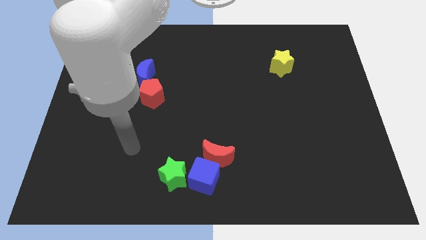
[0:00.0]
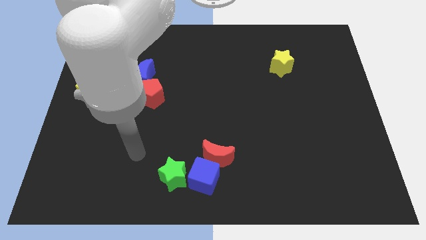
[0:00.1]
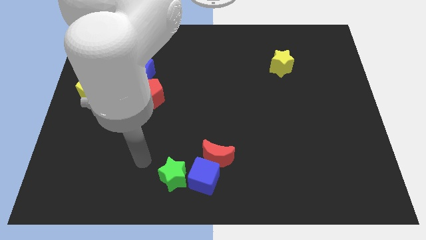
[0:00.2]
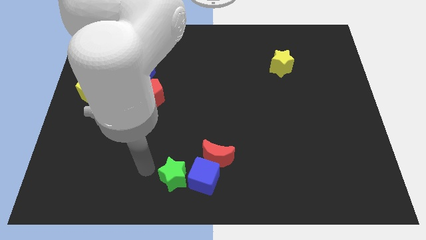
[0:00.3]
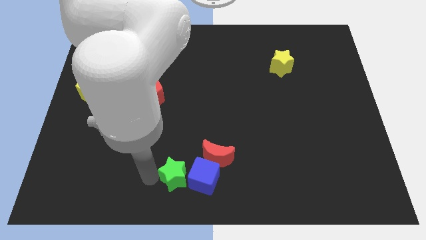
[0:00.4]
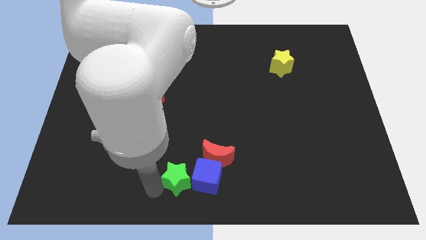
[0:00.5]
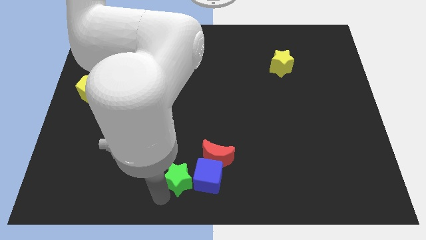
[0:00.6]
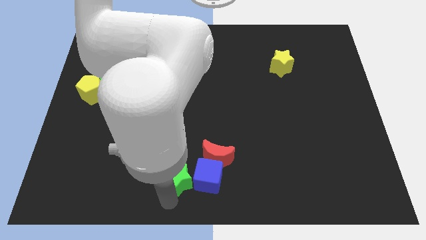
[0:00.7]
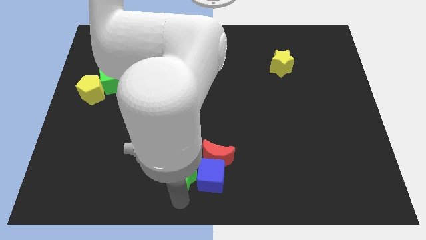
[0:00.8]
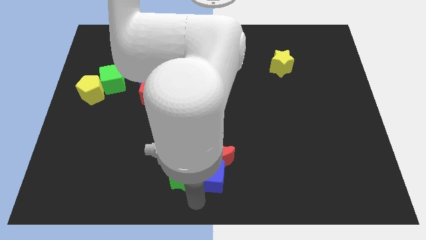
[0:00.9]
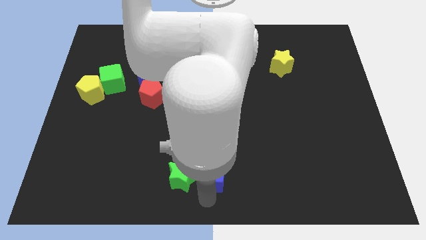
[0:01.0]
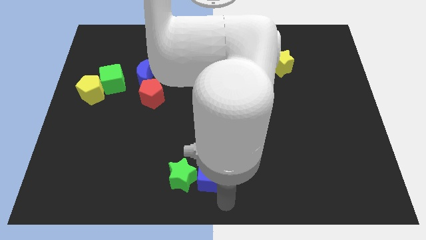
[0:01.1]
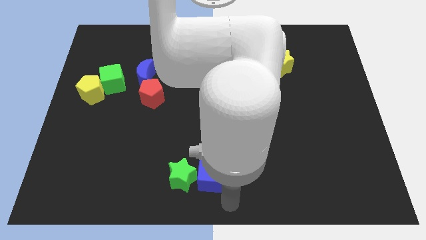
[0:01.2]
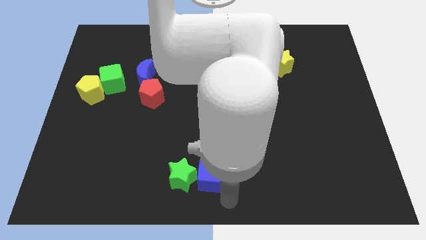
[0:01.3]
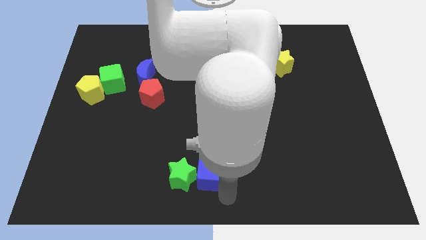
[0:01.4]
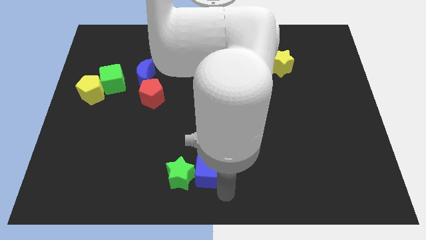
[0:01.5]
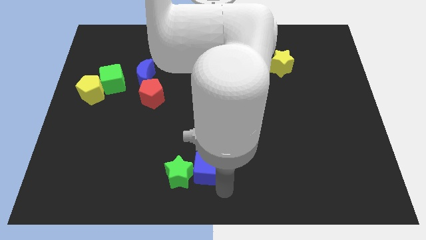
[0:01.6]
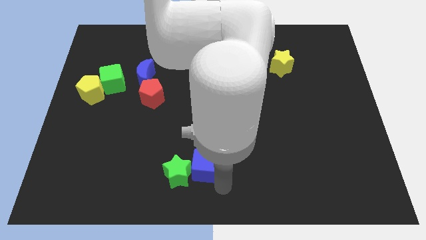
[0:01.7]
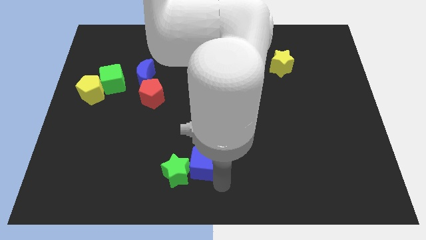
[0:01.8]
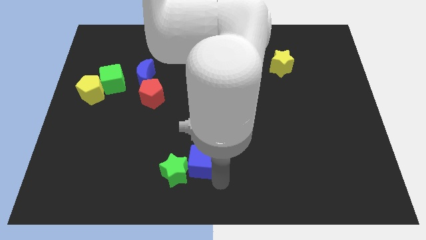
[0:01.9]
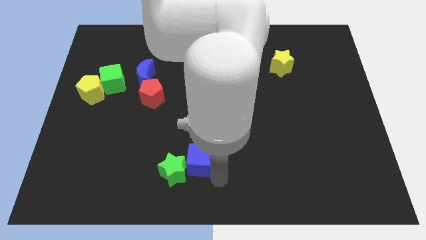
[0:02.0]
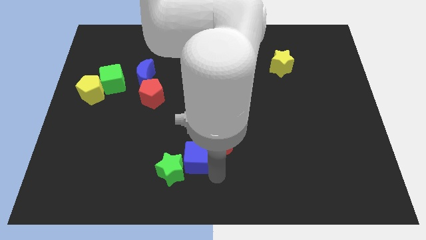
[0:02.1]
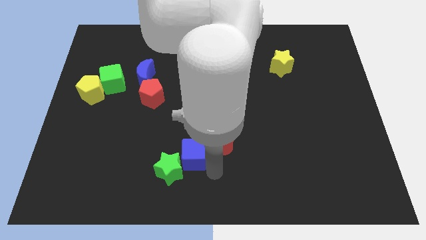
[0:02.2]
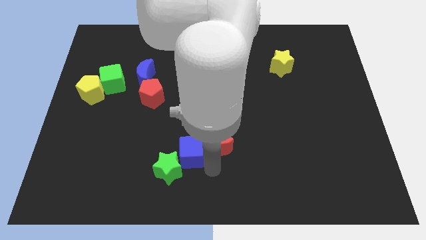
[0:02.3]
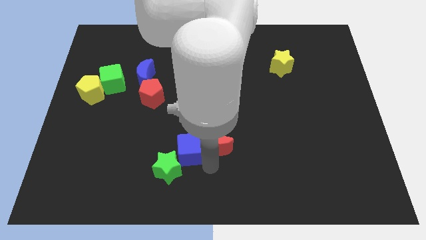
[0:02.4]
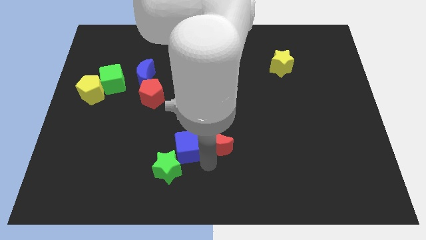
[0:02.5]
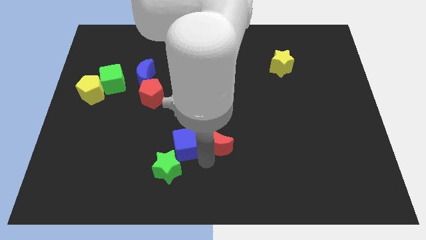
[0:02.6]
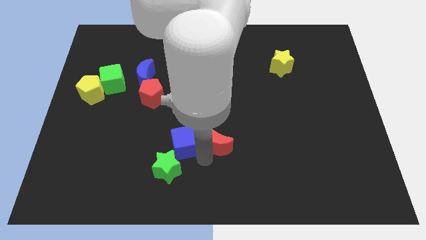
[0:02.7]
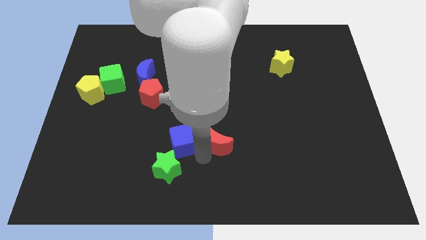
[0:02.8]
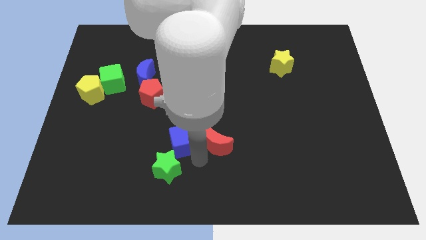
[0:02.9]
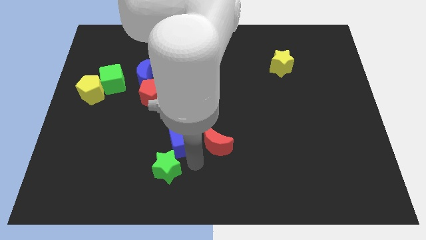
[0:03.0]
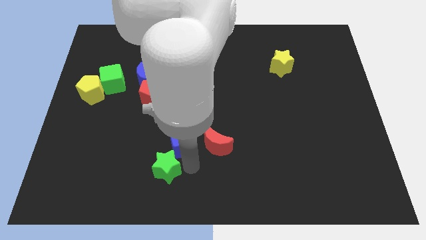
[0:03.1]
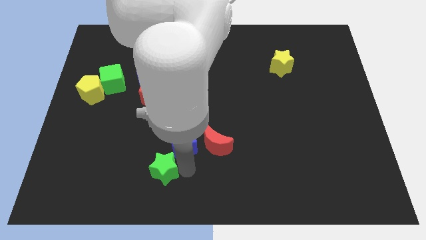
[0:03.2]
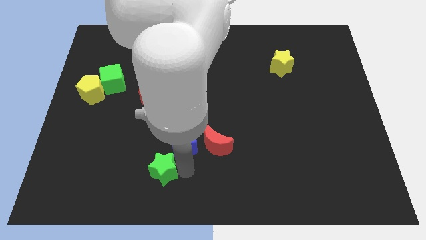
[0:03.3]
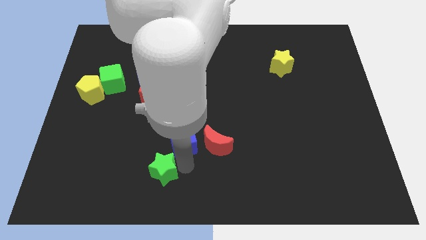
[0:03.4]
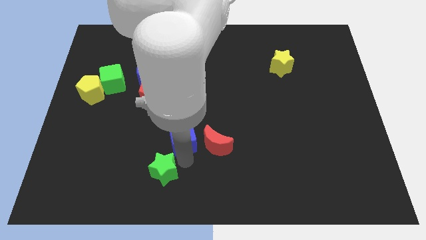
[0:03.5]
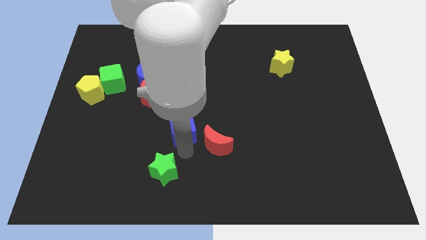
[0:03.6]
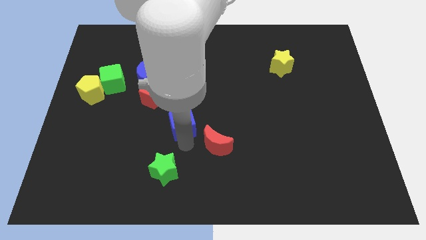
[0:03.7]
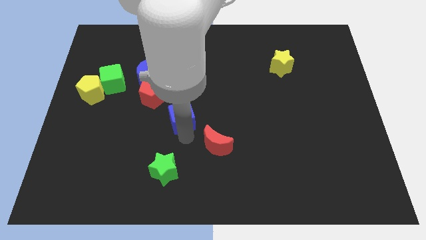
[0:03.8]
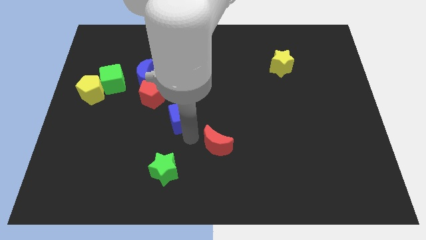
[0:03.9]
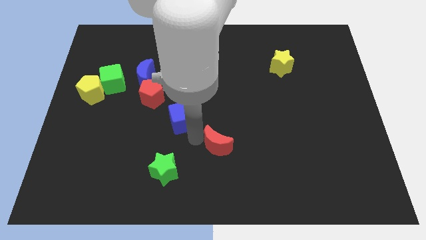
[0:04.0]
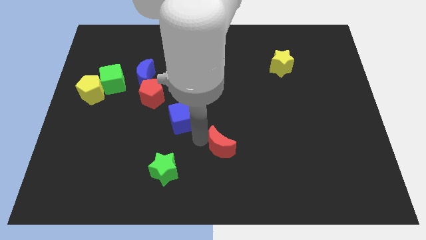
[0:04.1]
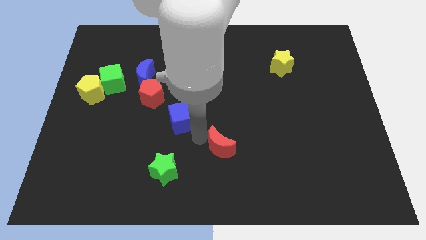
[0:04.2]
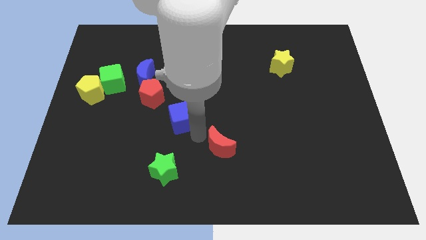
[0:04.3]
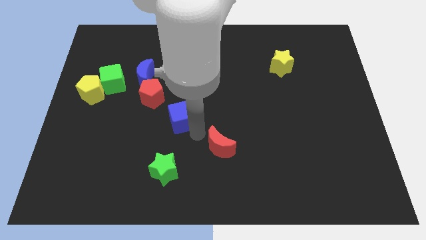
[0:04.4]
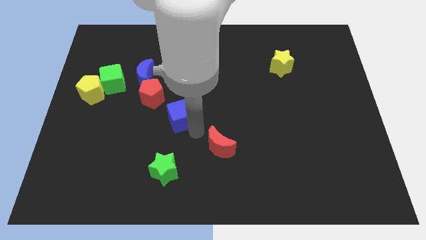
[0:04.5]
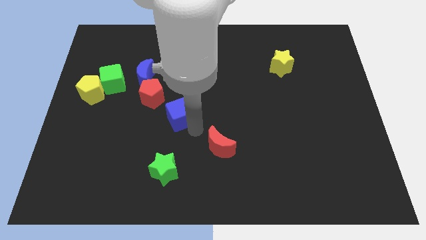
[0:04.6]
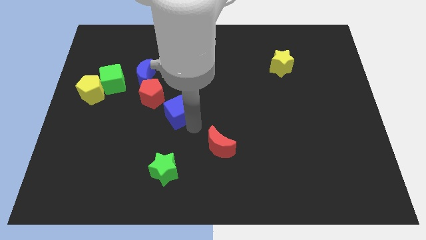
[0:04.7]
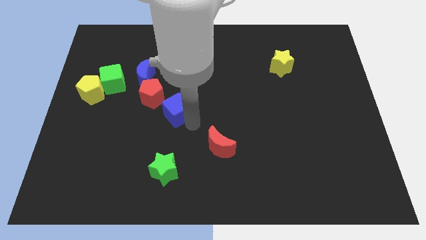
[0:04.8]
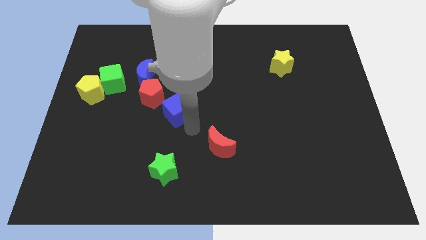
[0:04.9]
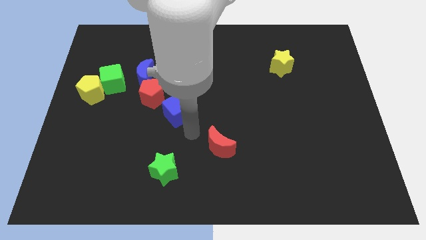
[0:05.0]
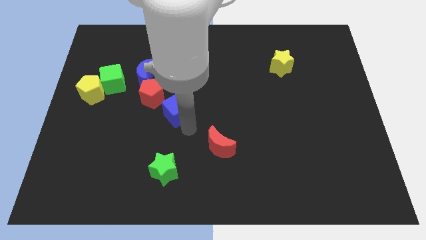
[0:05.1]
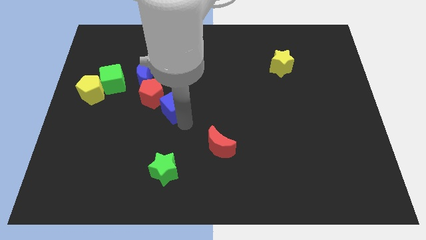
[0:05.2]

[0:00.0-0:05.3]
put the blue cube to the bottom right of the blue moon
